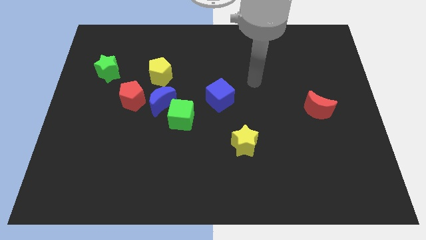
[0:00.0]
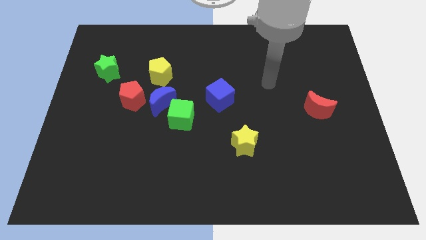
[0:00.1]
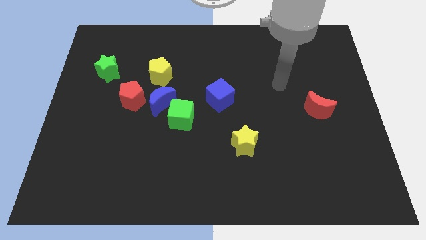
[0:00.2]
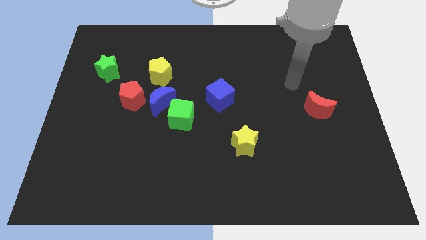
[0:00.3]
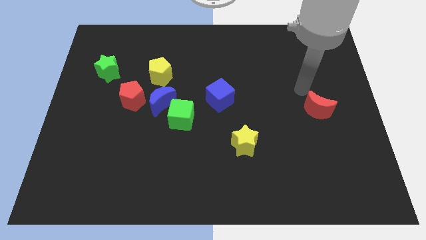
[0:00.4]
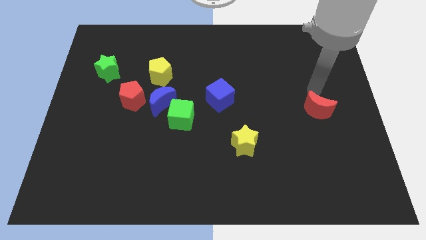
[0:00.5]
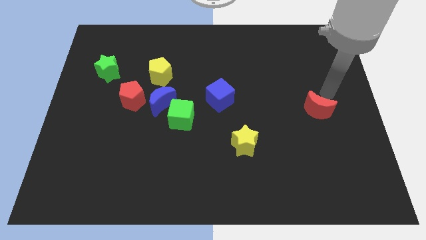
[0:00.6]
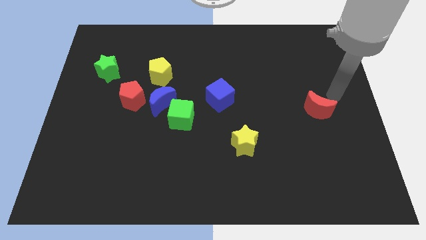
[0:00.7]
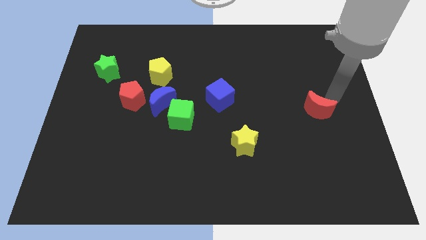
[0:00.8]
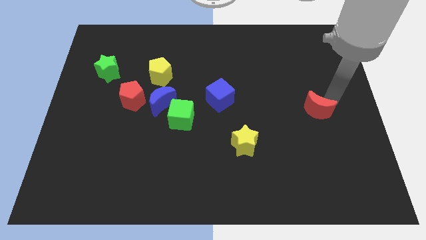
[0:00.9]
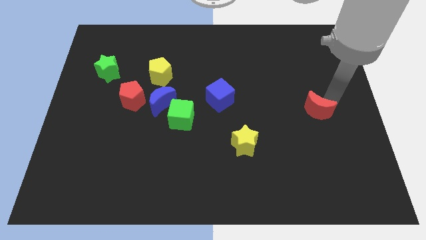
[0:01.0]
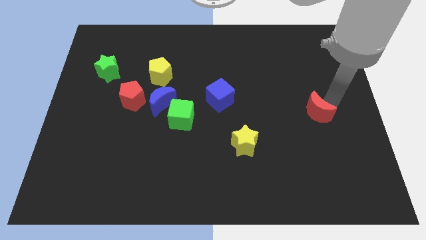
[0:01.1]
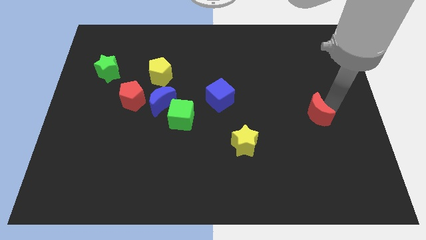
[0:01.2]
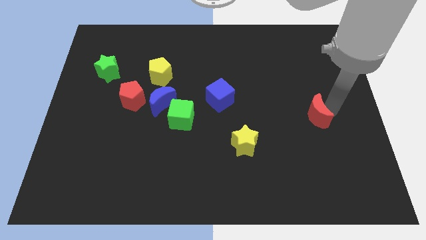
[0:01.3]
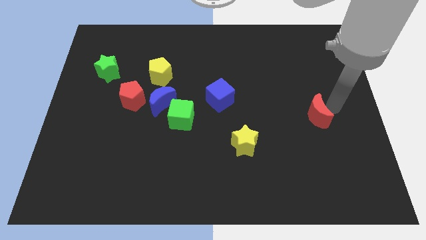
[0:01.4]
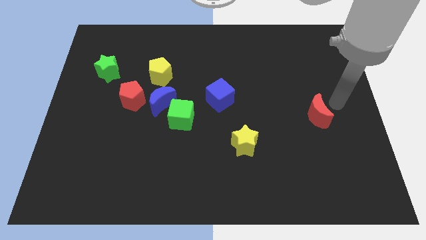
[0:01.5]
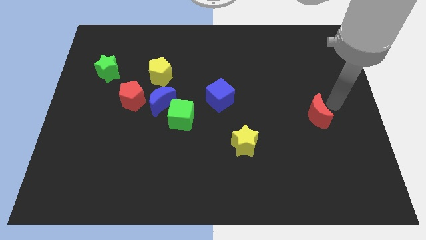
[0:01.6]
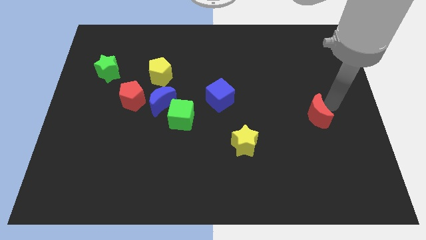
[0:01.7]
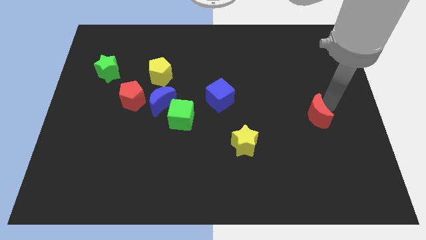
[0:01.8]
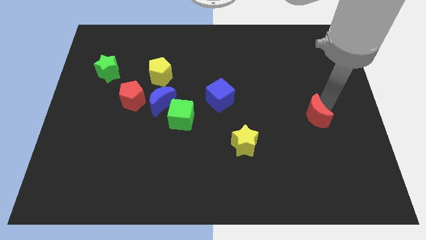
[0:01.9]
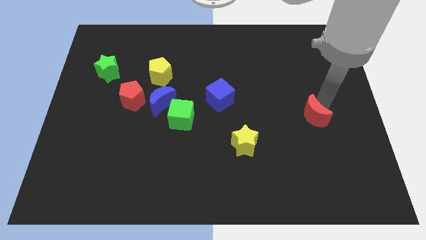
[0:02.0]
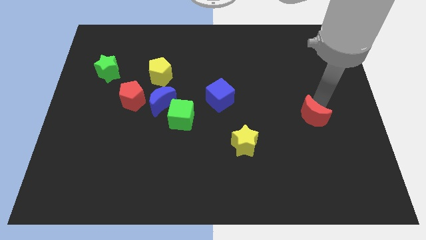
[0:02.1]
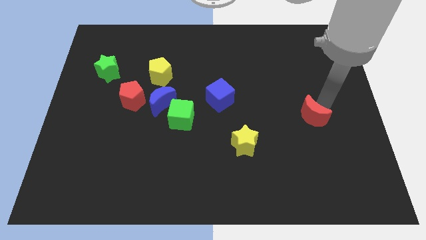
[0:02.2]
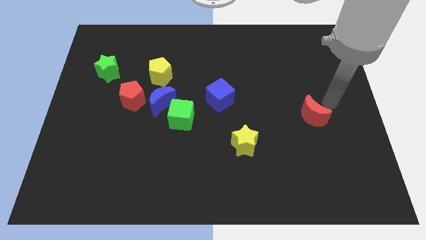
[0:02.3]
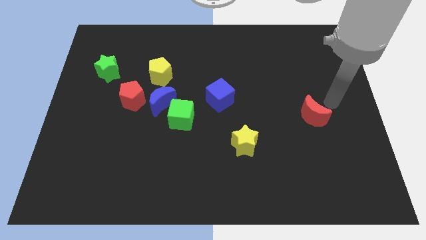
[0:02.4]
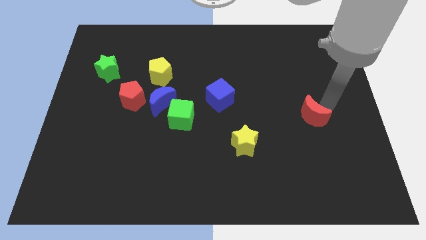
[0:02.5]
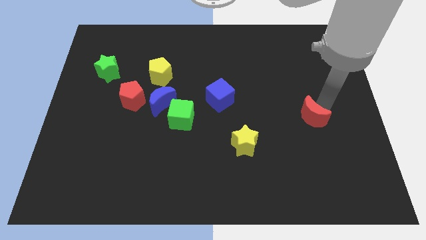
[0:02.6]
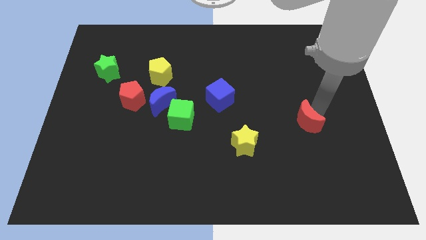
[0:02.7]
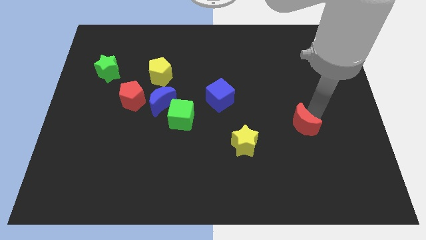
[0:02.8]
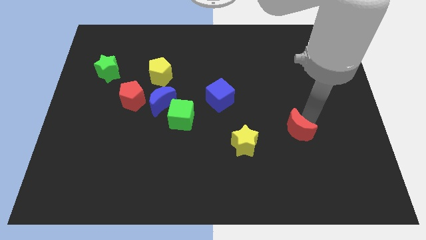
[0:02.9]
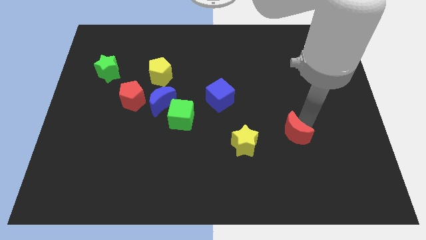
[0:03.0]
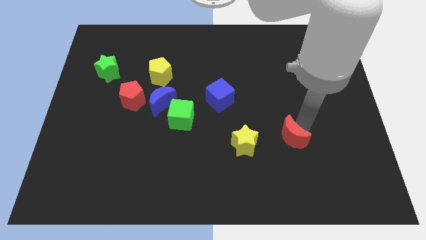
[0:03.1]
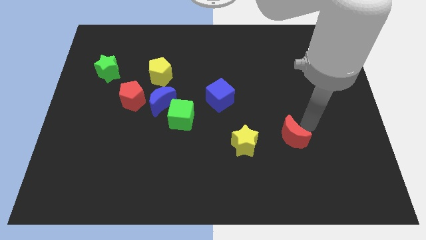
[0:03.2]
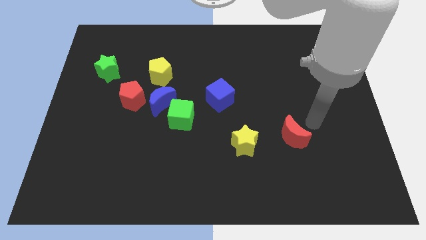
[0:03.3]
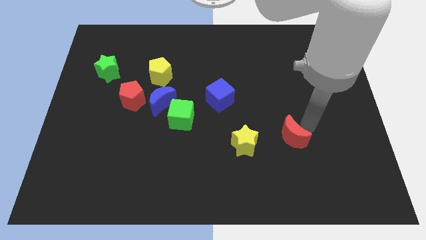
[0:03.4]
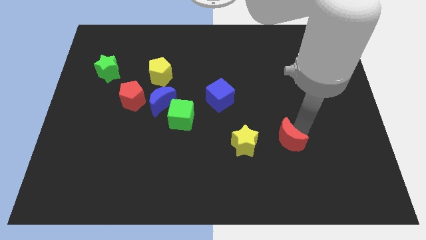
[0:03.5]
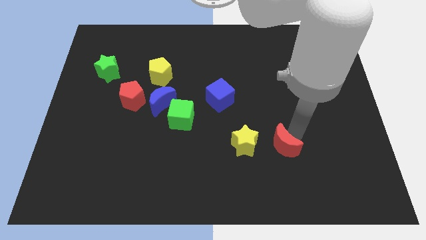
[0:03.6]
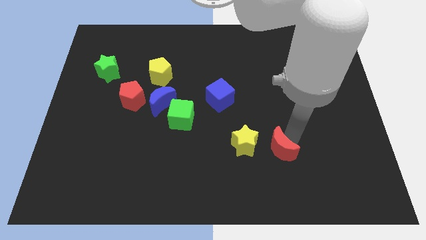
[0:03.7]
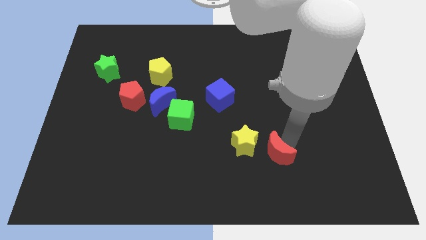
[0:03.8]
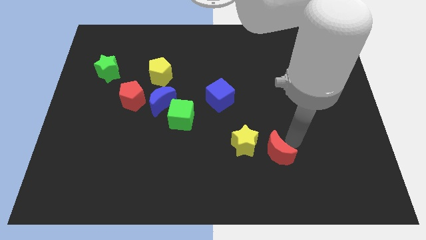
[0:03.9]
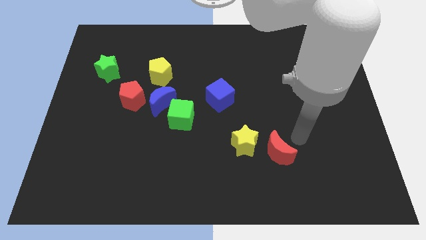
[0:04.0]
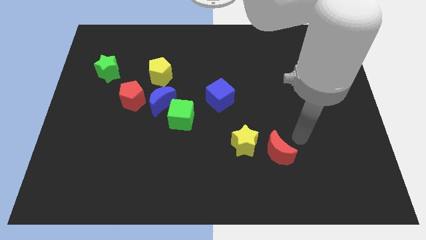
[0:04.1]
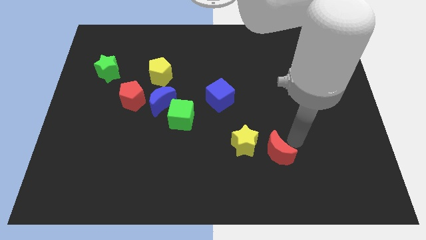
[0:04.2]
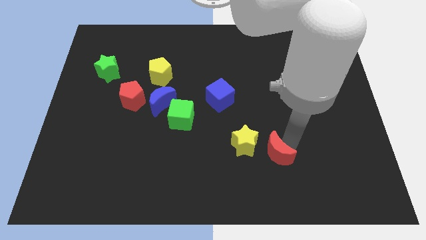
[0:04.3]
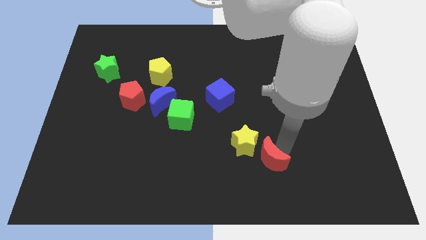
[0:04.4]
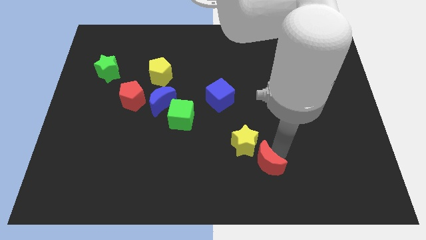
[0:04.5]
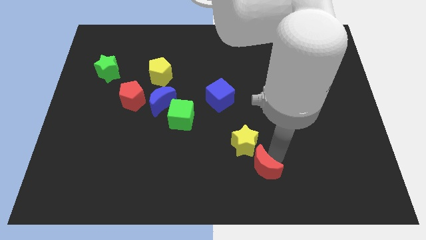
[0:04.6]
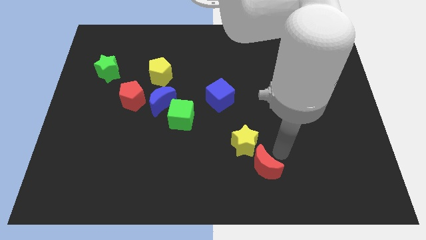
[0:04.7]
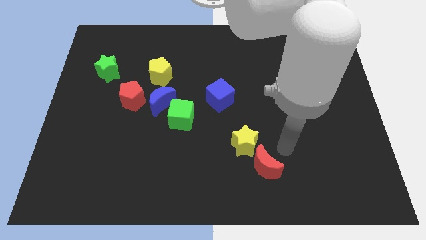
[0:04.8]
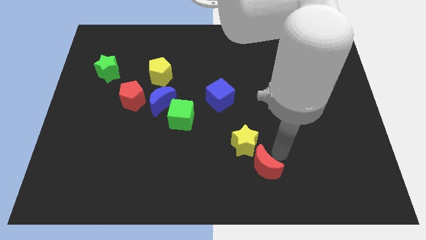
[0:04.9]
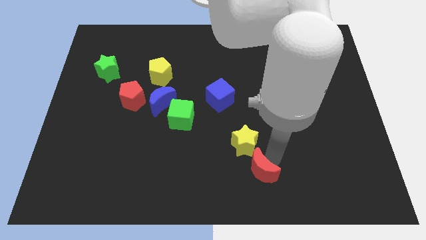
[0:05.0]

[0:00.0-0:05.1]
put the red moon to the bottom

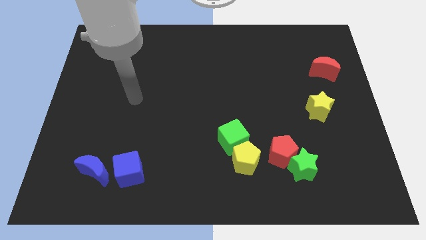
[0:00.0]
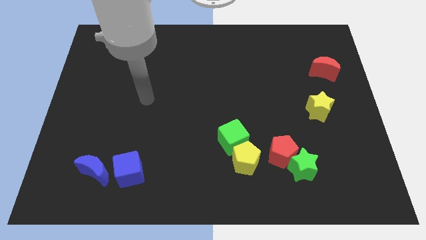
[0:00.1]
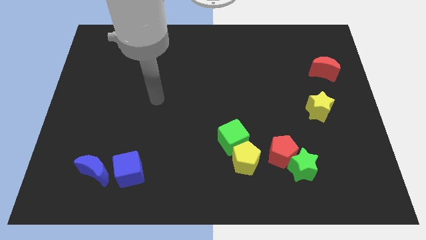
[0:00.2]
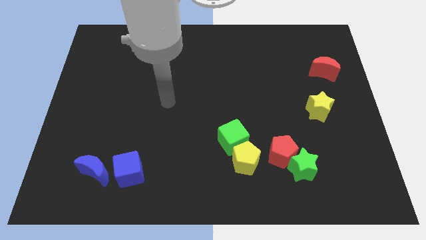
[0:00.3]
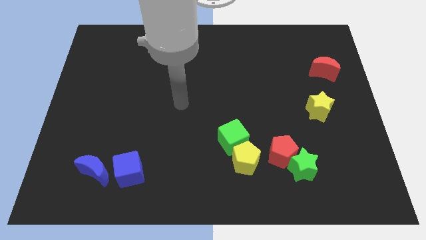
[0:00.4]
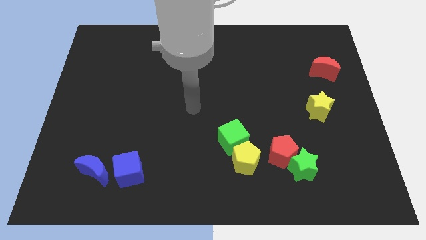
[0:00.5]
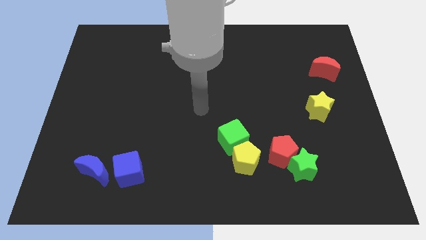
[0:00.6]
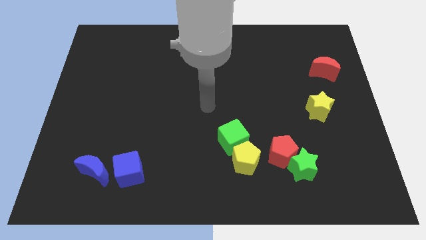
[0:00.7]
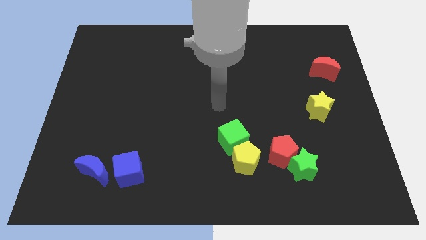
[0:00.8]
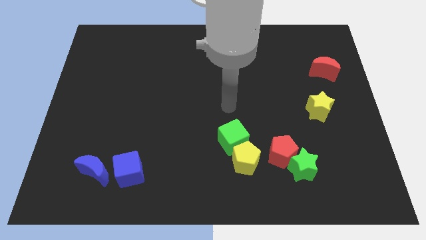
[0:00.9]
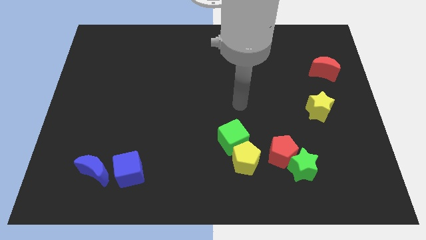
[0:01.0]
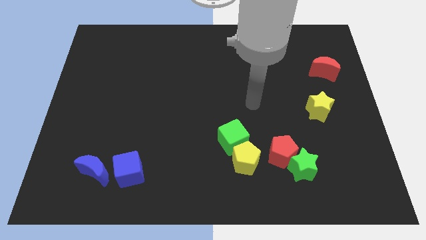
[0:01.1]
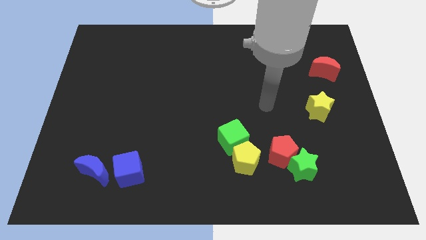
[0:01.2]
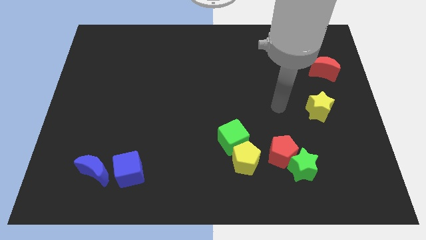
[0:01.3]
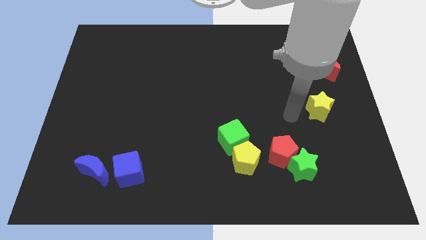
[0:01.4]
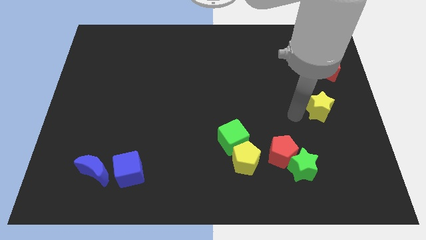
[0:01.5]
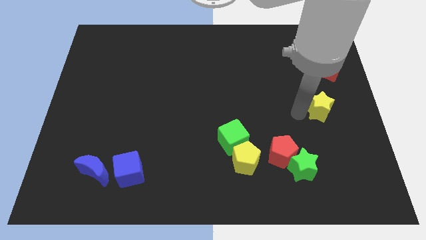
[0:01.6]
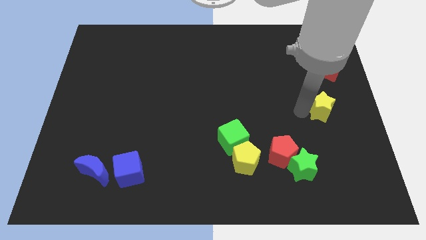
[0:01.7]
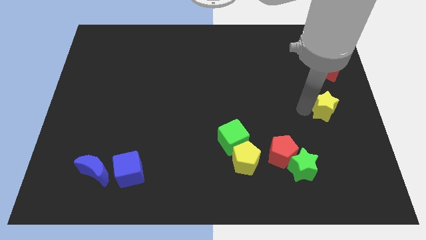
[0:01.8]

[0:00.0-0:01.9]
push the yellow star to the right side of the board
